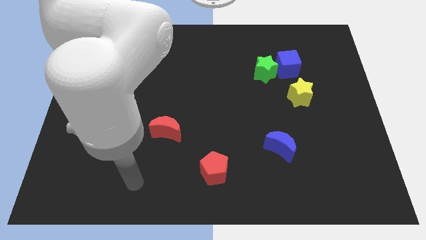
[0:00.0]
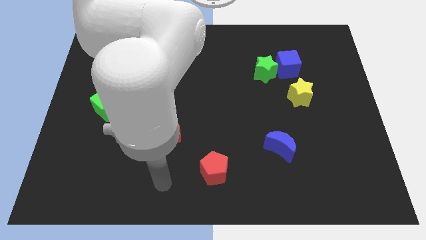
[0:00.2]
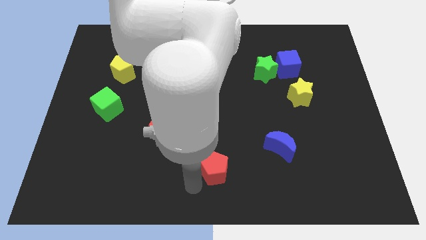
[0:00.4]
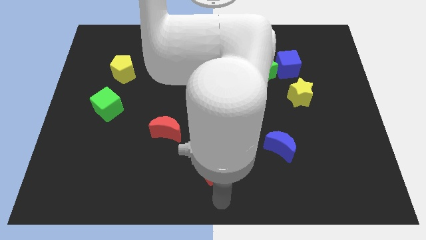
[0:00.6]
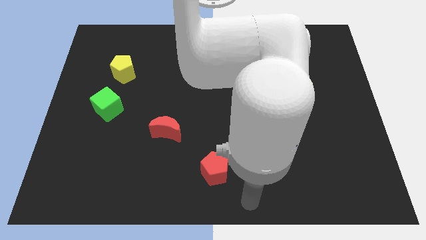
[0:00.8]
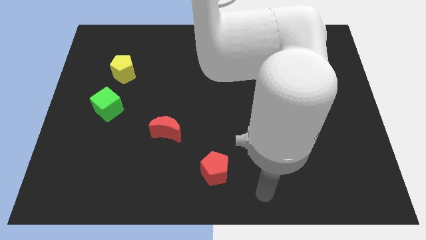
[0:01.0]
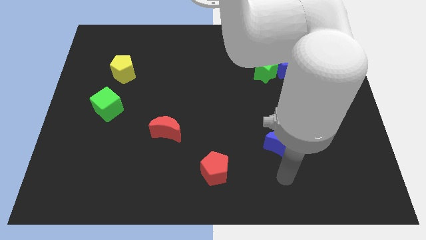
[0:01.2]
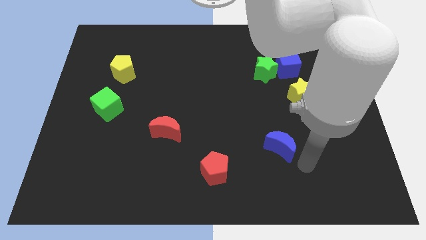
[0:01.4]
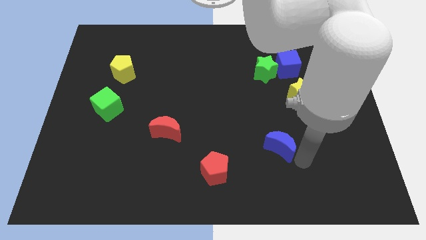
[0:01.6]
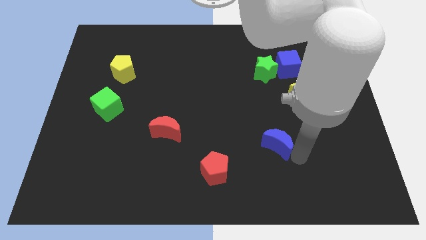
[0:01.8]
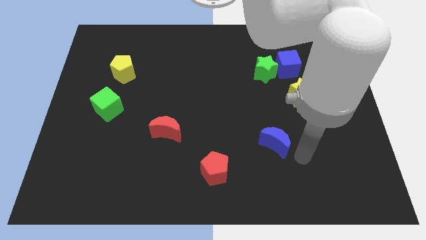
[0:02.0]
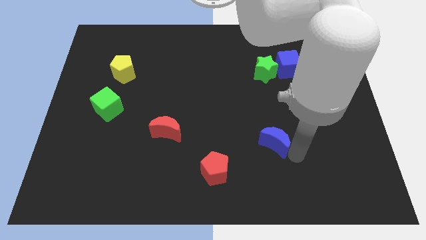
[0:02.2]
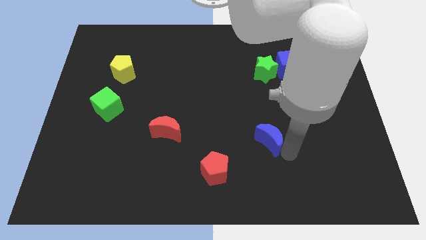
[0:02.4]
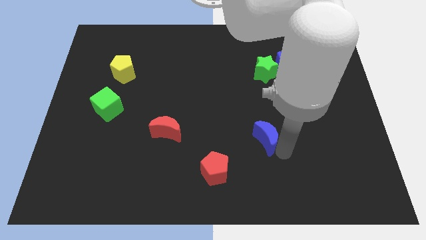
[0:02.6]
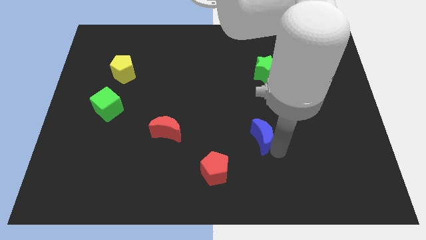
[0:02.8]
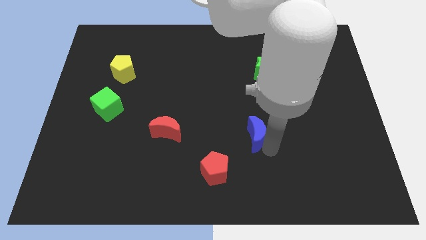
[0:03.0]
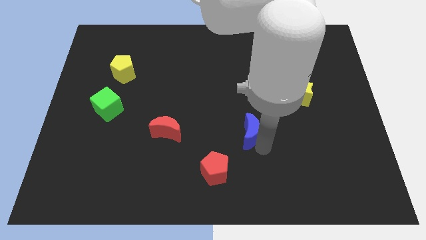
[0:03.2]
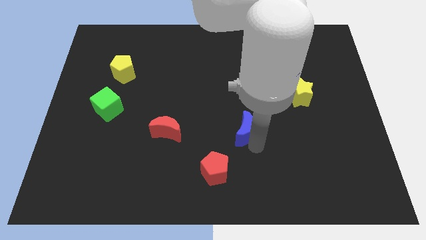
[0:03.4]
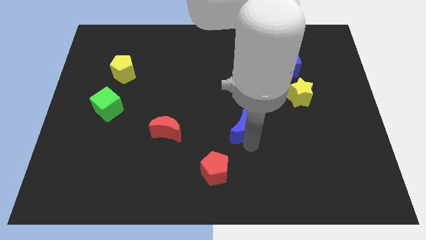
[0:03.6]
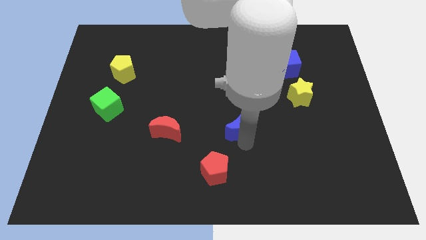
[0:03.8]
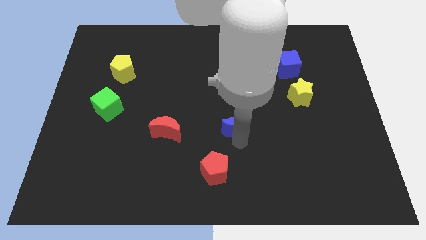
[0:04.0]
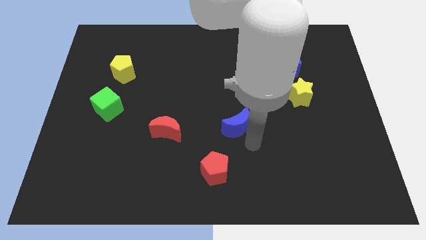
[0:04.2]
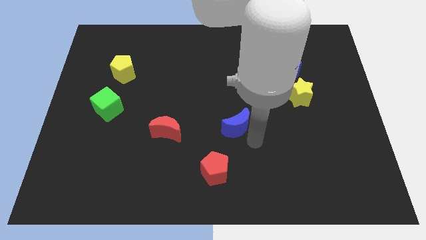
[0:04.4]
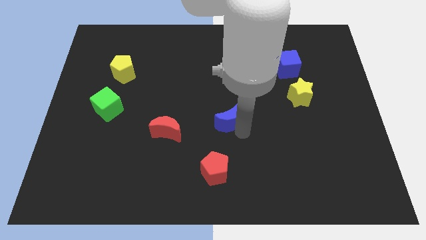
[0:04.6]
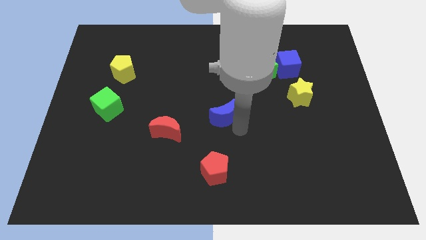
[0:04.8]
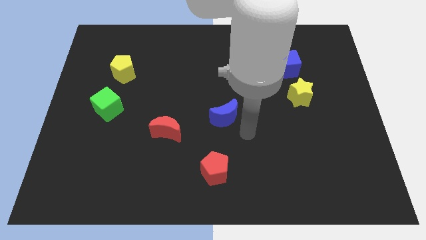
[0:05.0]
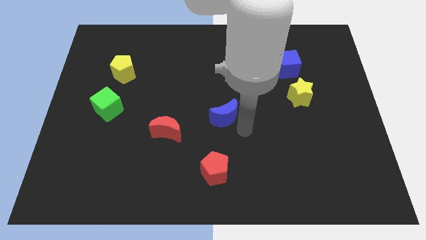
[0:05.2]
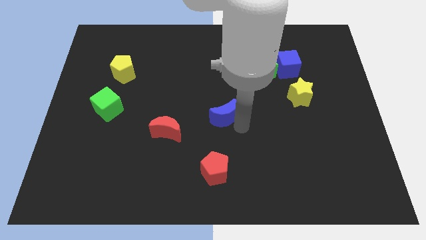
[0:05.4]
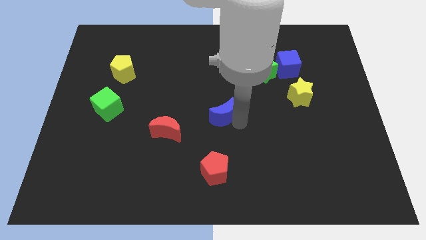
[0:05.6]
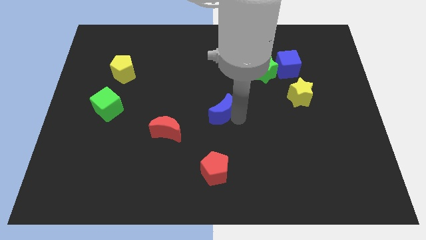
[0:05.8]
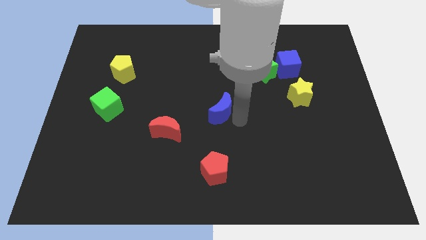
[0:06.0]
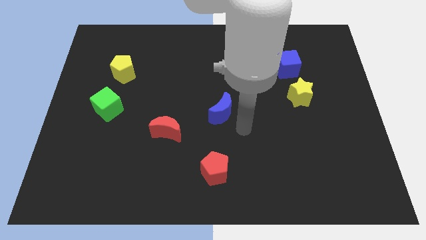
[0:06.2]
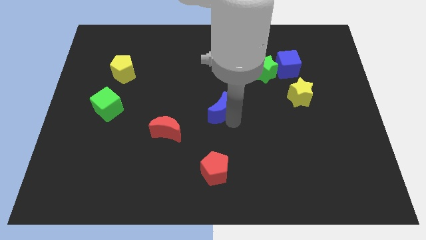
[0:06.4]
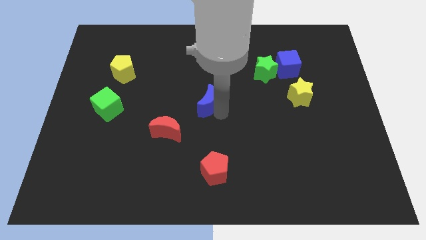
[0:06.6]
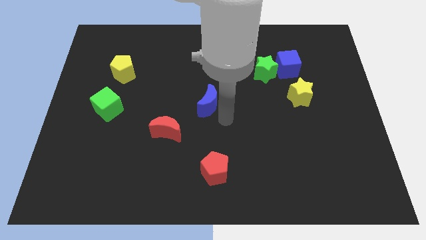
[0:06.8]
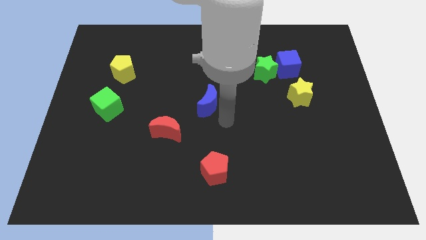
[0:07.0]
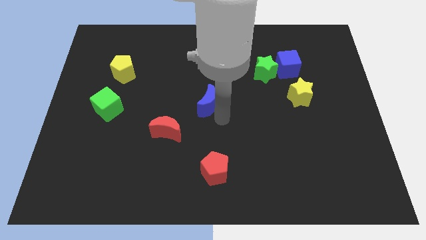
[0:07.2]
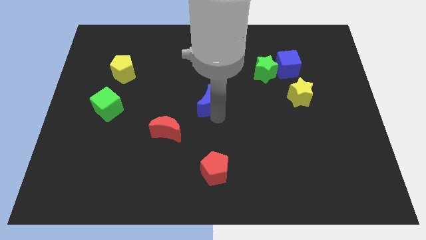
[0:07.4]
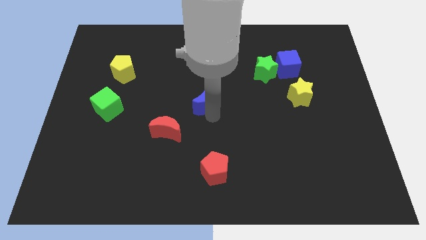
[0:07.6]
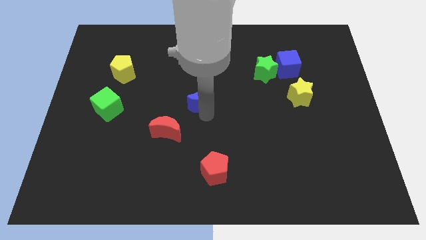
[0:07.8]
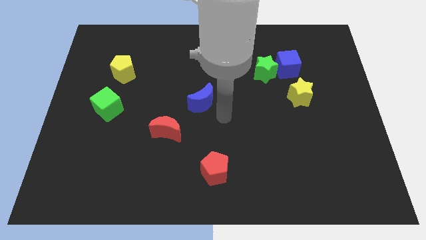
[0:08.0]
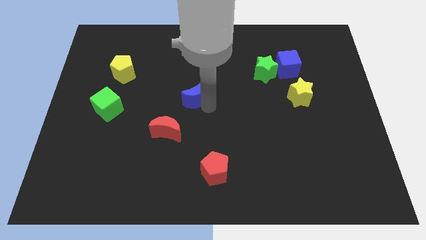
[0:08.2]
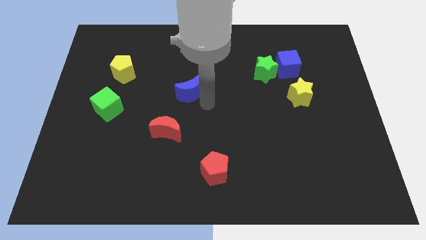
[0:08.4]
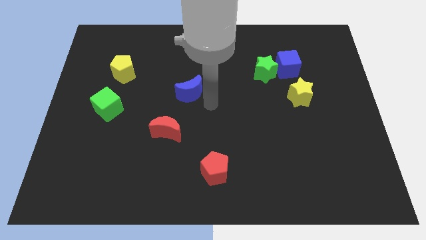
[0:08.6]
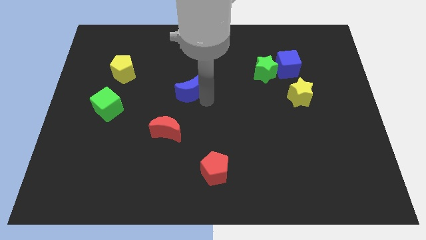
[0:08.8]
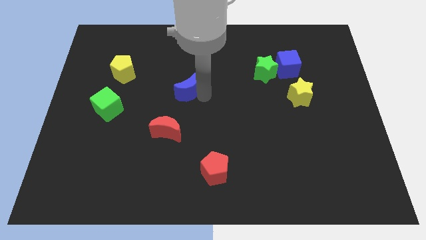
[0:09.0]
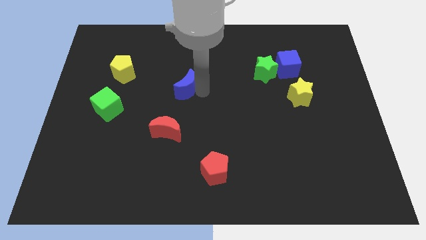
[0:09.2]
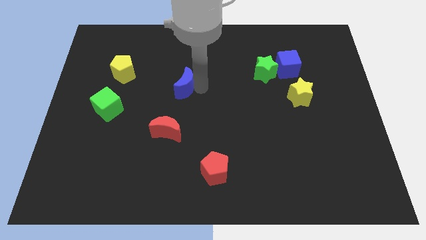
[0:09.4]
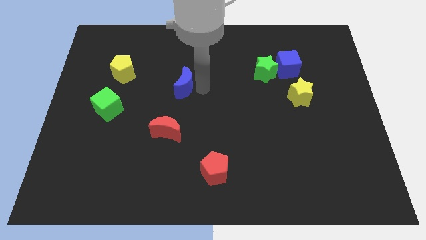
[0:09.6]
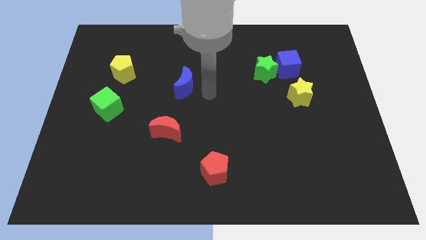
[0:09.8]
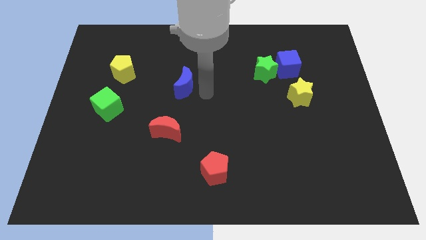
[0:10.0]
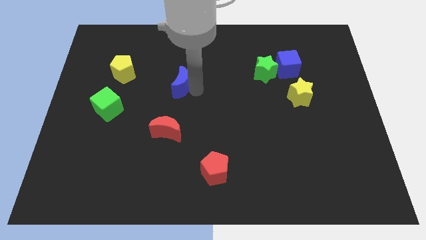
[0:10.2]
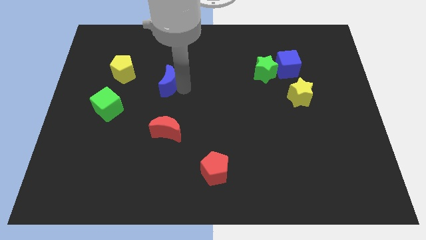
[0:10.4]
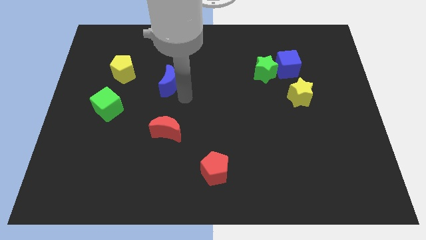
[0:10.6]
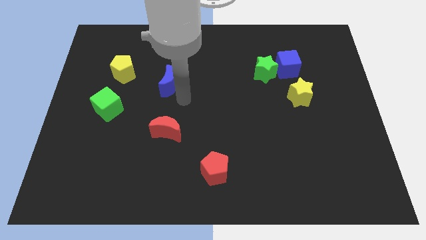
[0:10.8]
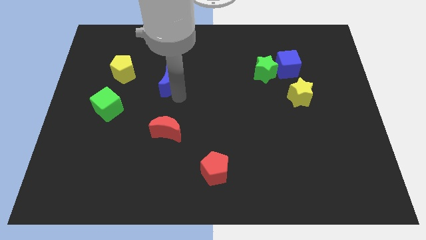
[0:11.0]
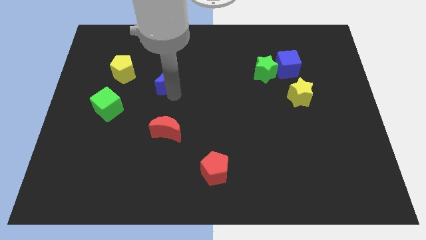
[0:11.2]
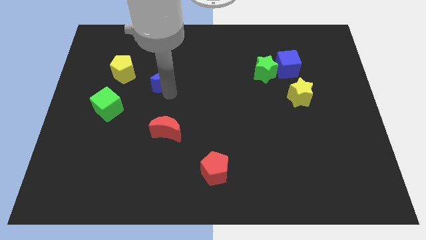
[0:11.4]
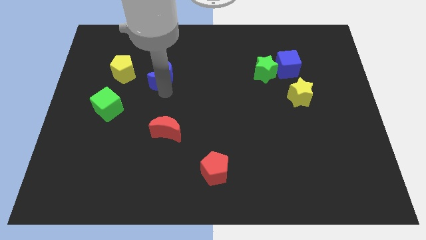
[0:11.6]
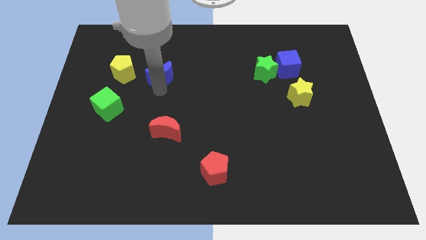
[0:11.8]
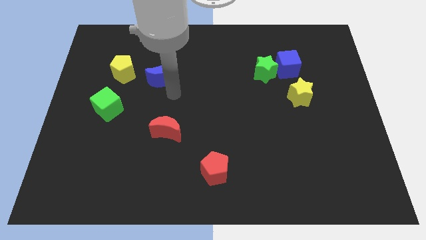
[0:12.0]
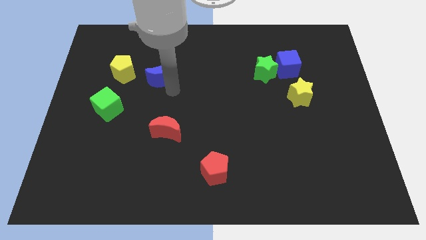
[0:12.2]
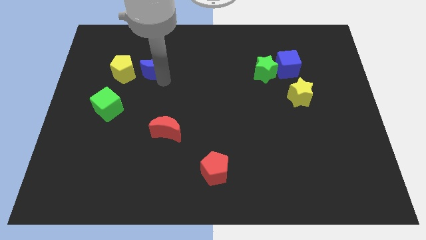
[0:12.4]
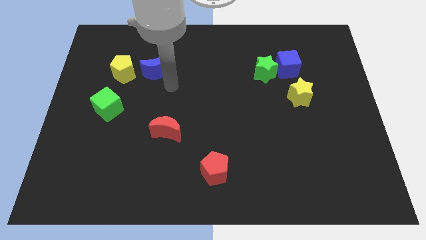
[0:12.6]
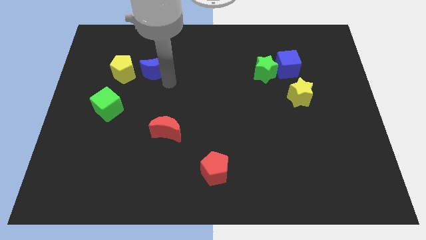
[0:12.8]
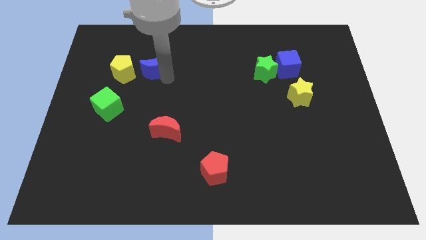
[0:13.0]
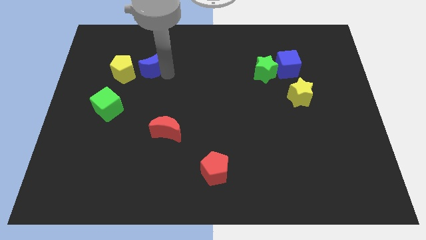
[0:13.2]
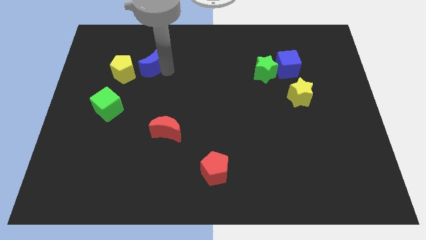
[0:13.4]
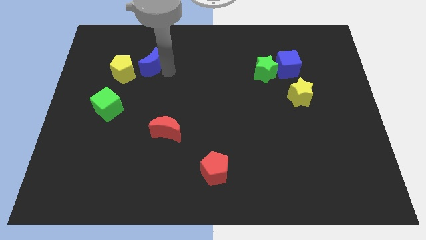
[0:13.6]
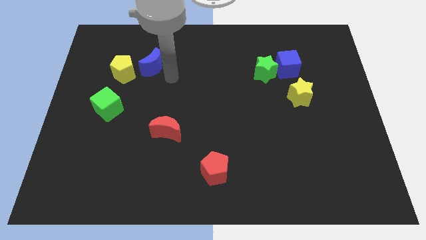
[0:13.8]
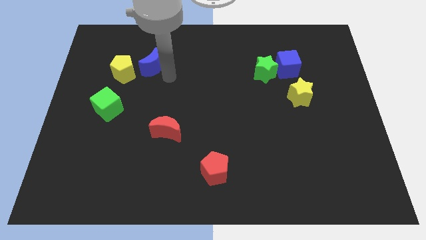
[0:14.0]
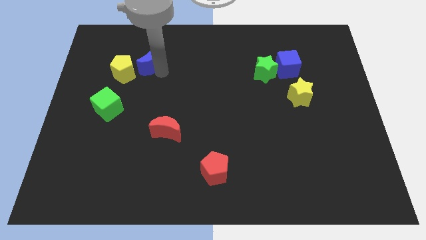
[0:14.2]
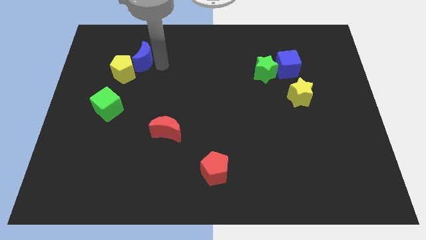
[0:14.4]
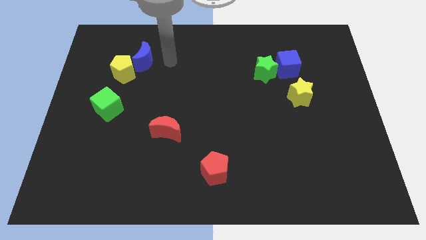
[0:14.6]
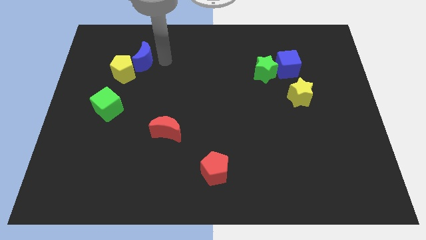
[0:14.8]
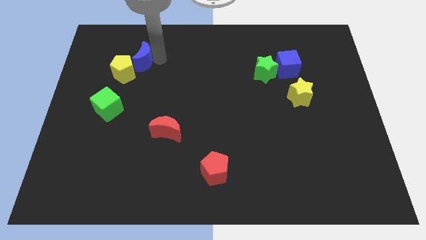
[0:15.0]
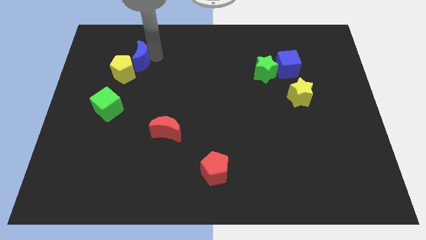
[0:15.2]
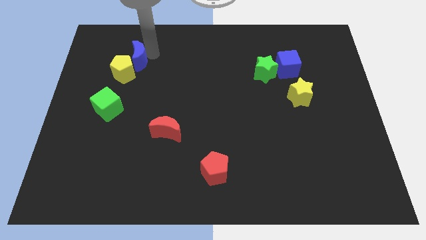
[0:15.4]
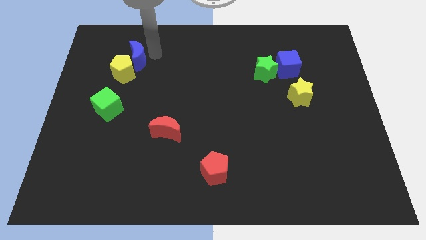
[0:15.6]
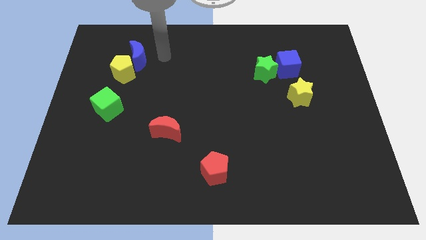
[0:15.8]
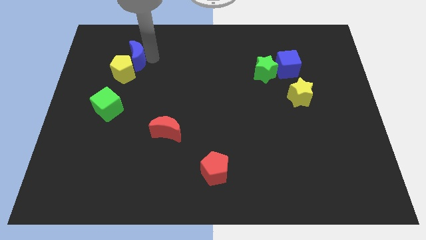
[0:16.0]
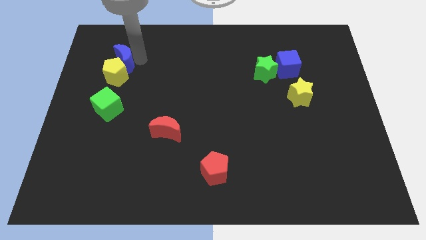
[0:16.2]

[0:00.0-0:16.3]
slide the blue moon to the top of the green cube
